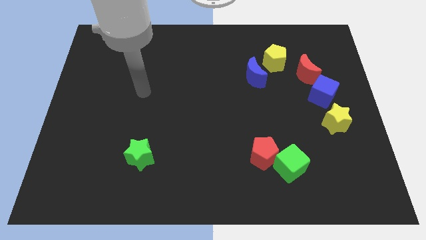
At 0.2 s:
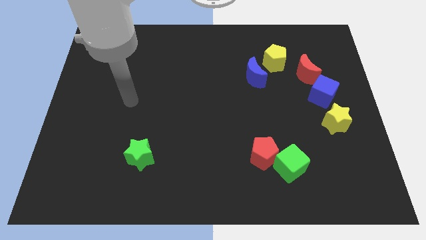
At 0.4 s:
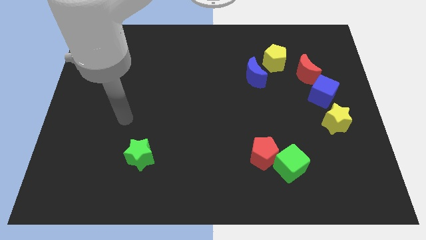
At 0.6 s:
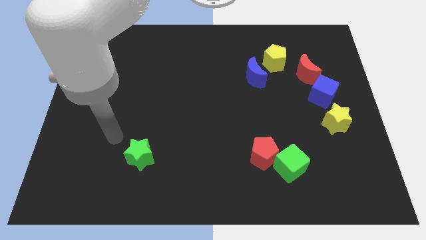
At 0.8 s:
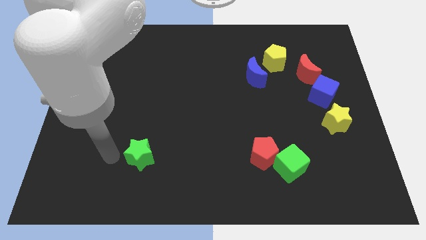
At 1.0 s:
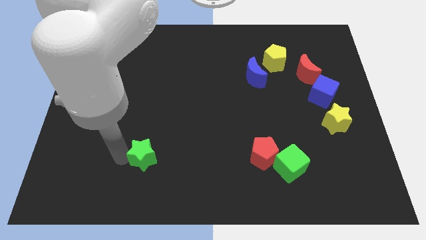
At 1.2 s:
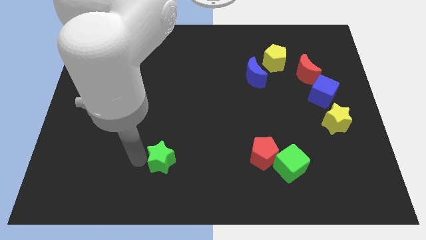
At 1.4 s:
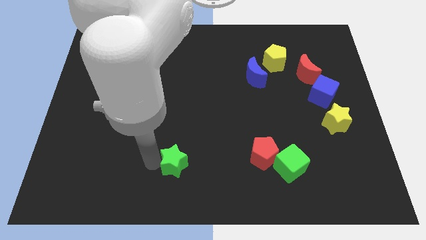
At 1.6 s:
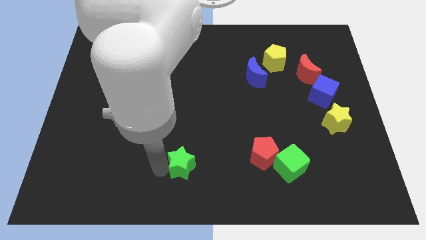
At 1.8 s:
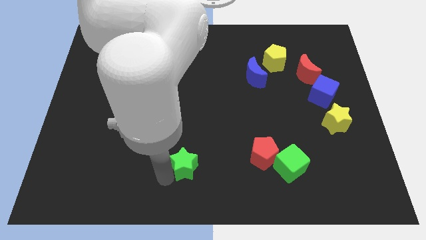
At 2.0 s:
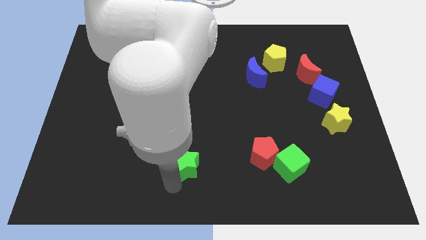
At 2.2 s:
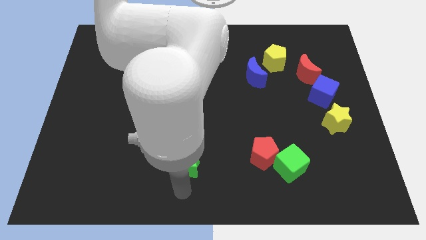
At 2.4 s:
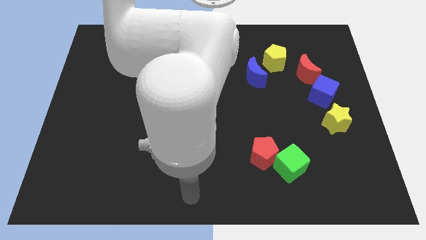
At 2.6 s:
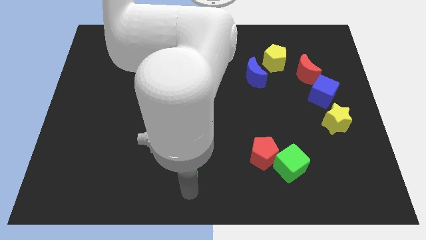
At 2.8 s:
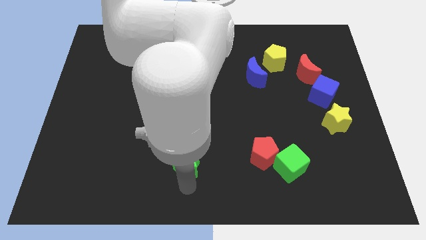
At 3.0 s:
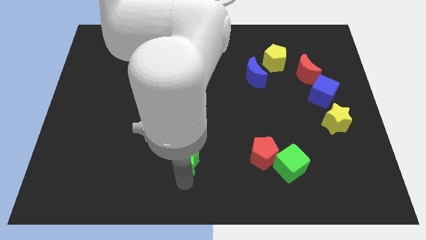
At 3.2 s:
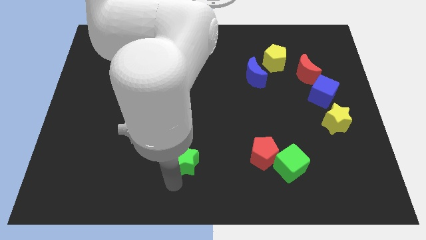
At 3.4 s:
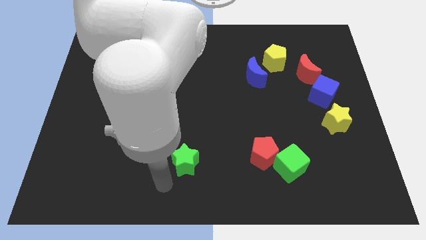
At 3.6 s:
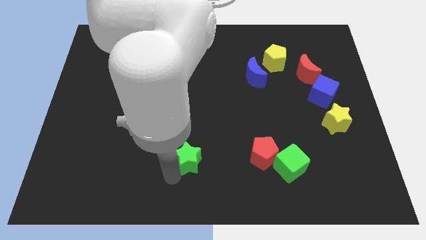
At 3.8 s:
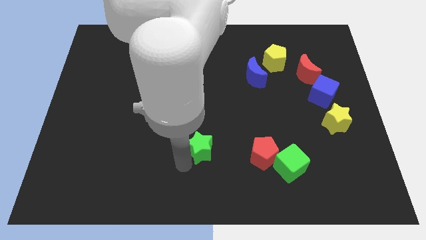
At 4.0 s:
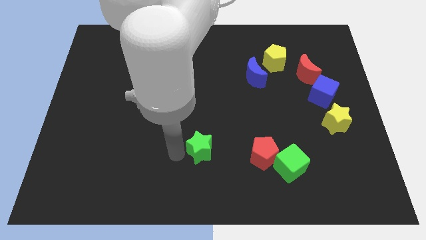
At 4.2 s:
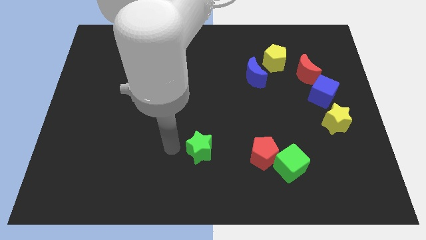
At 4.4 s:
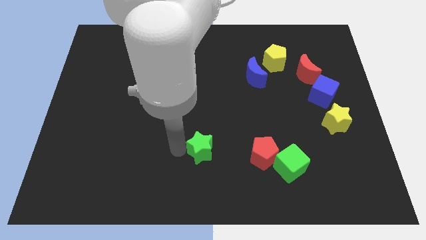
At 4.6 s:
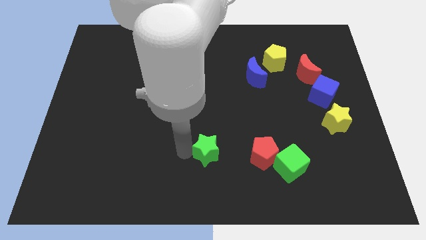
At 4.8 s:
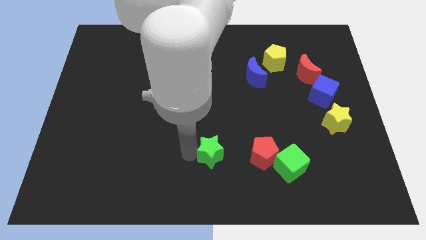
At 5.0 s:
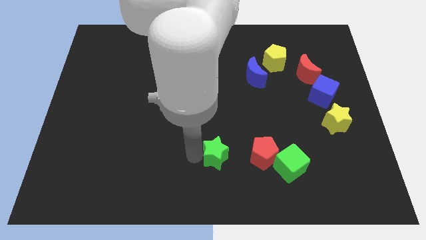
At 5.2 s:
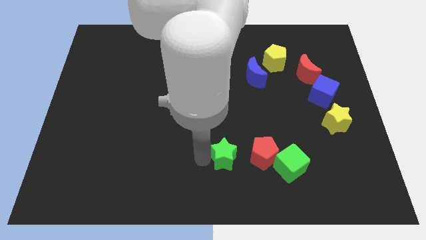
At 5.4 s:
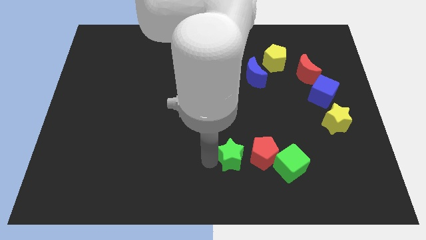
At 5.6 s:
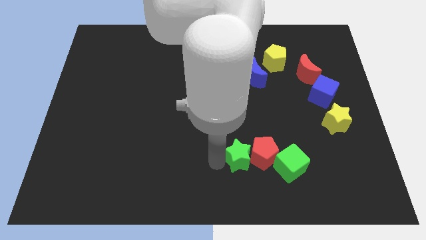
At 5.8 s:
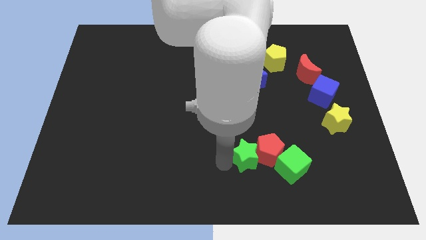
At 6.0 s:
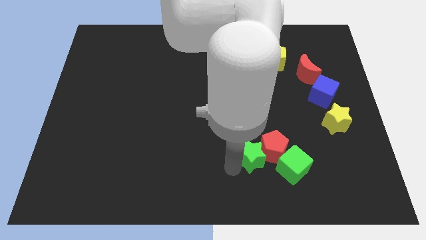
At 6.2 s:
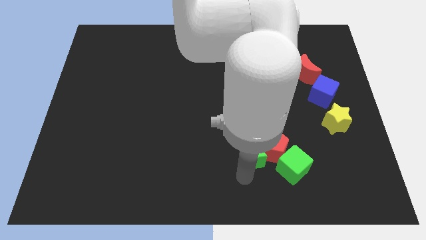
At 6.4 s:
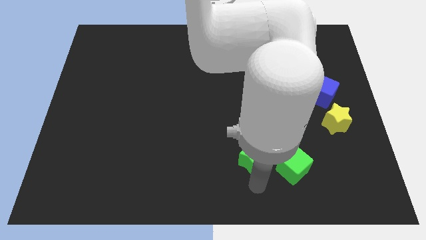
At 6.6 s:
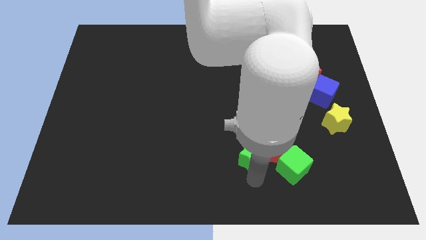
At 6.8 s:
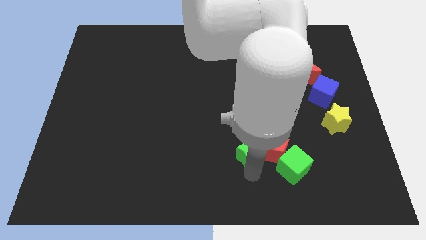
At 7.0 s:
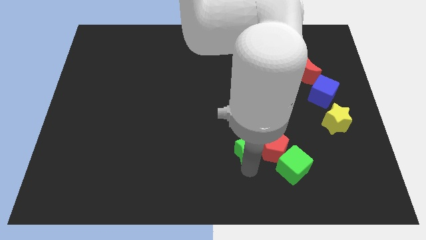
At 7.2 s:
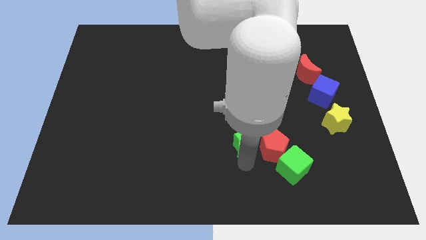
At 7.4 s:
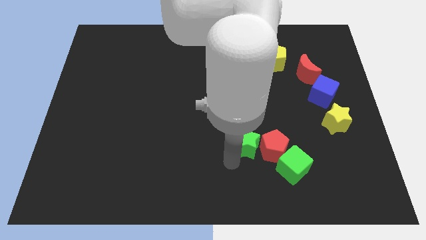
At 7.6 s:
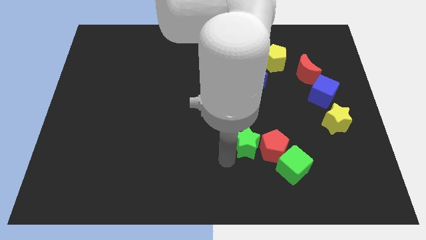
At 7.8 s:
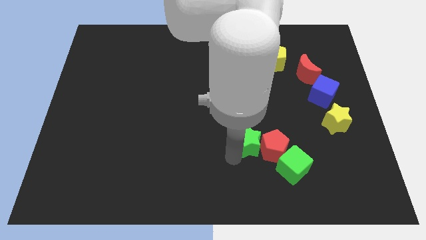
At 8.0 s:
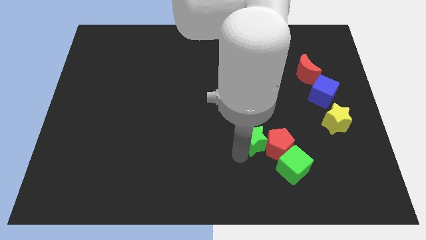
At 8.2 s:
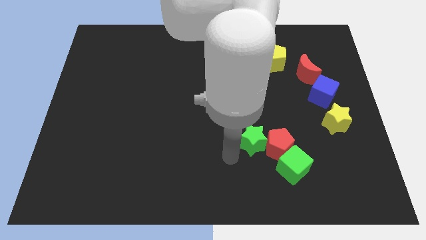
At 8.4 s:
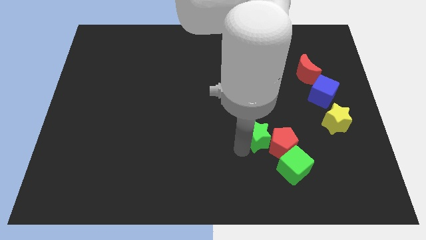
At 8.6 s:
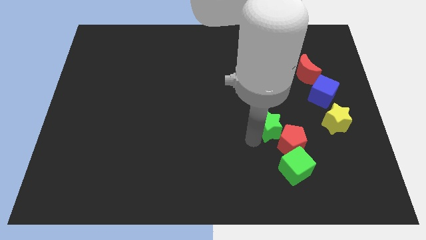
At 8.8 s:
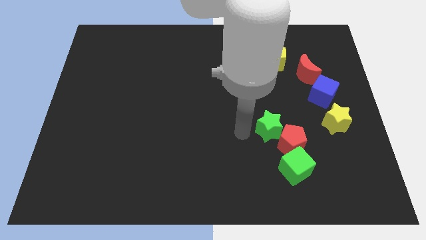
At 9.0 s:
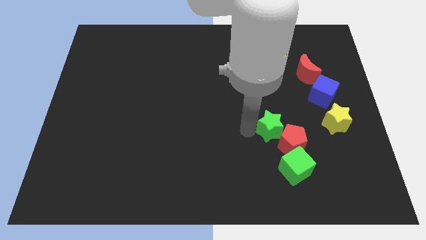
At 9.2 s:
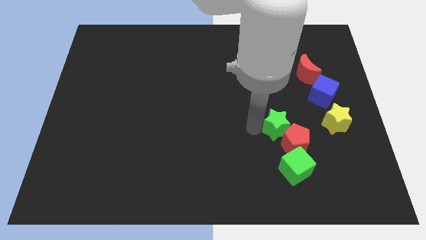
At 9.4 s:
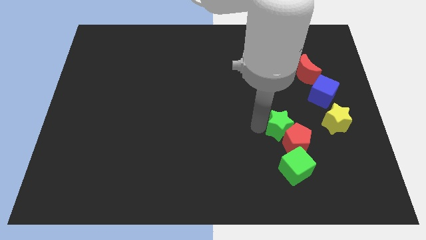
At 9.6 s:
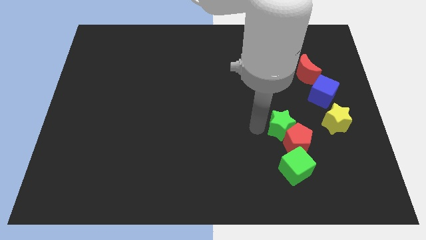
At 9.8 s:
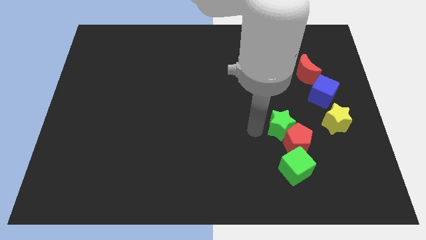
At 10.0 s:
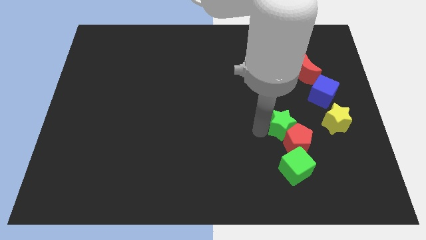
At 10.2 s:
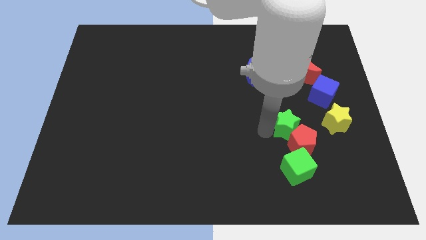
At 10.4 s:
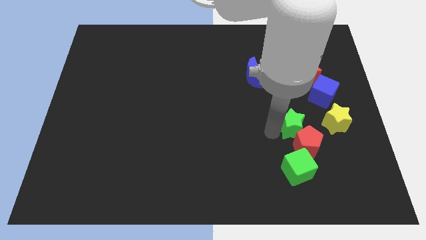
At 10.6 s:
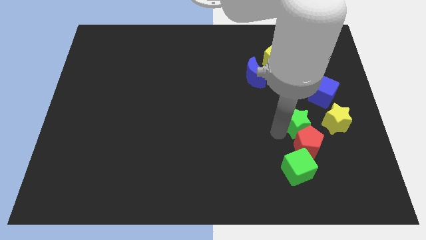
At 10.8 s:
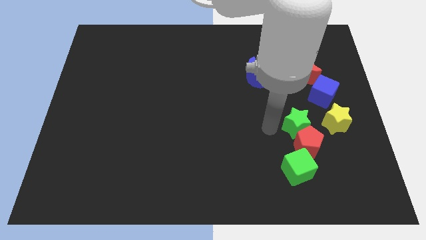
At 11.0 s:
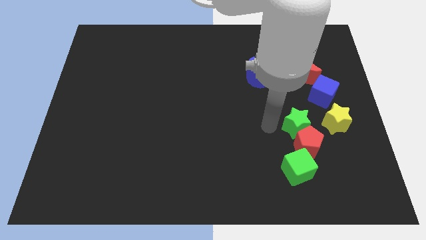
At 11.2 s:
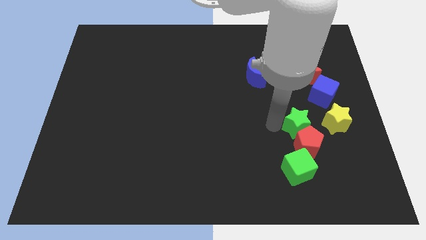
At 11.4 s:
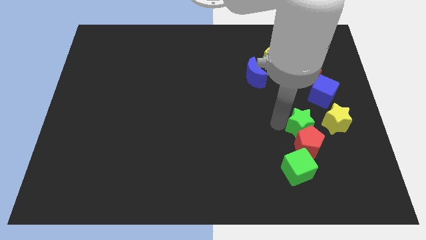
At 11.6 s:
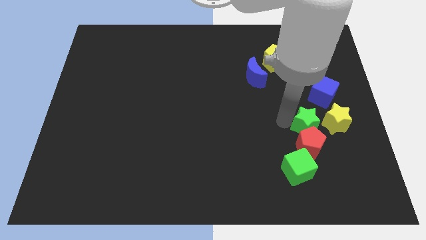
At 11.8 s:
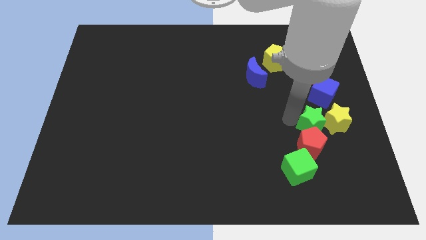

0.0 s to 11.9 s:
push the green star to the yellow star

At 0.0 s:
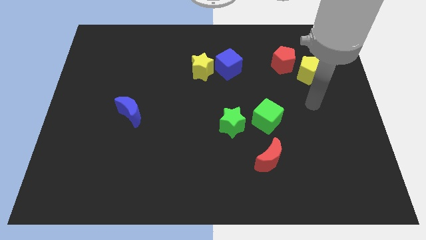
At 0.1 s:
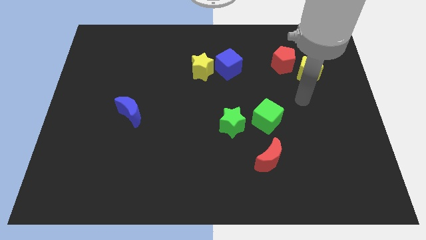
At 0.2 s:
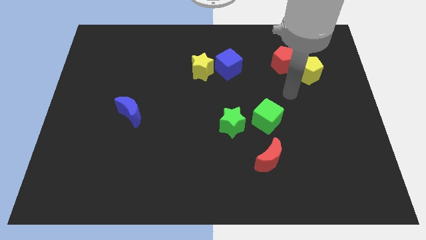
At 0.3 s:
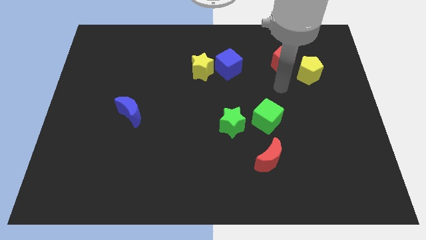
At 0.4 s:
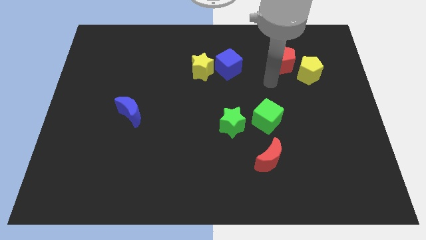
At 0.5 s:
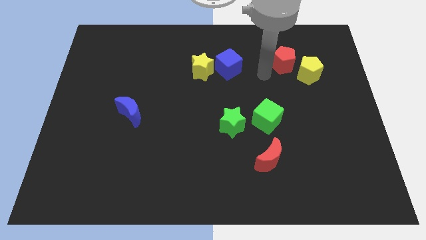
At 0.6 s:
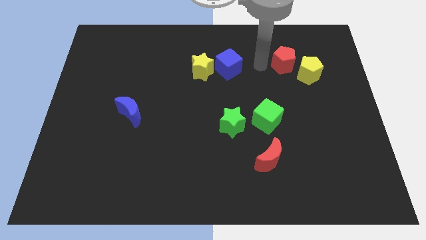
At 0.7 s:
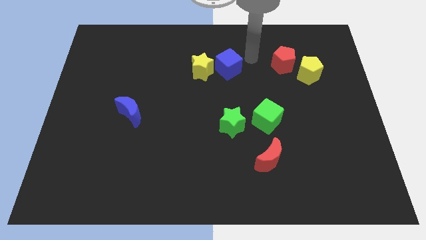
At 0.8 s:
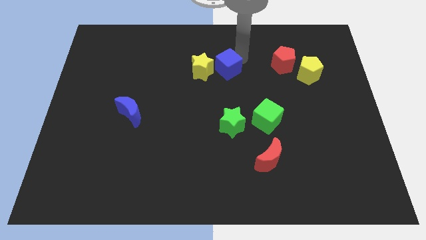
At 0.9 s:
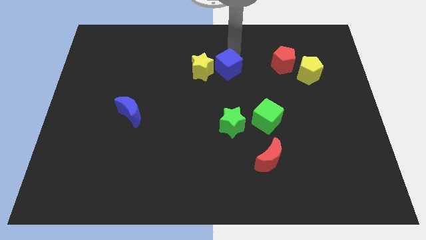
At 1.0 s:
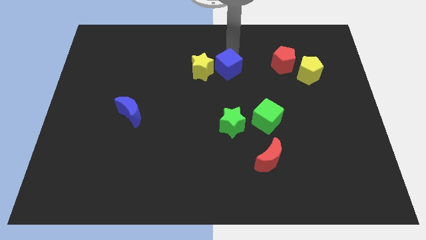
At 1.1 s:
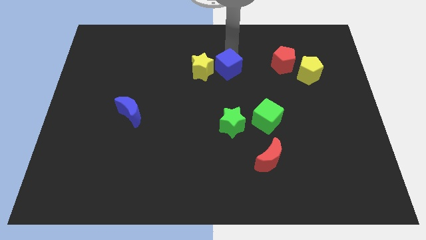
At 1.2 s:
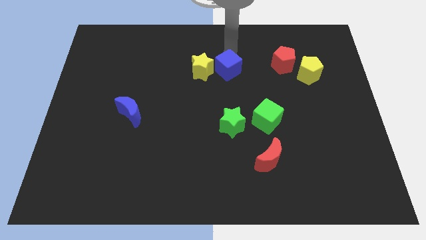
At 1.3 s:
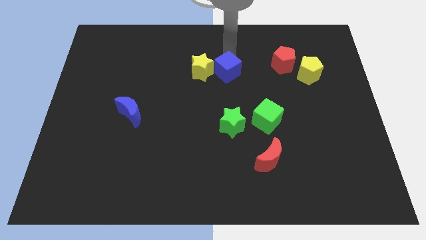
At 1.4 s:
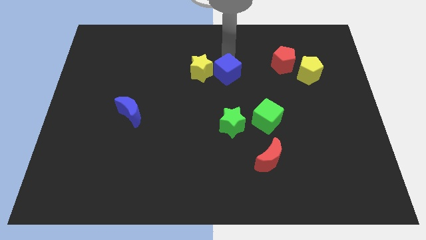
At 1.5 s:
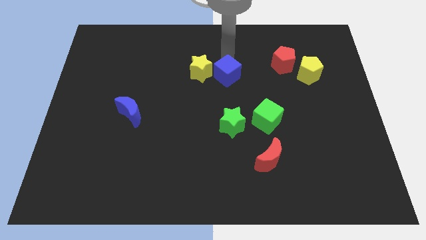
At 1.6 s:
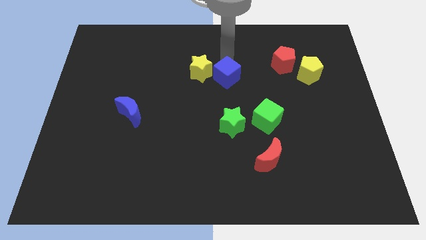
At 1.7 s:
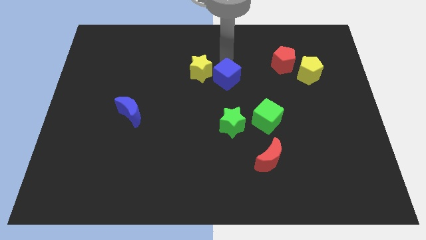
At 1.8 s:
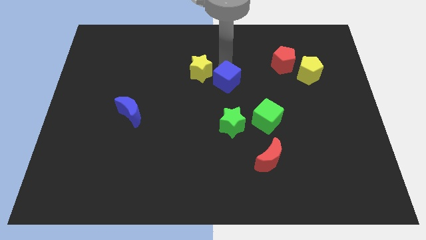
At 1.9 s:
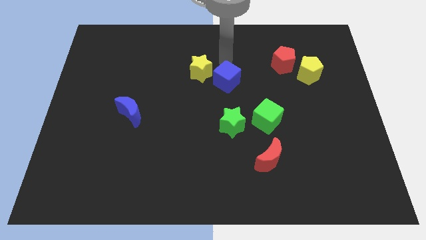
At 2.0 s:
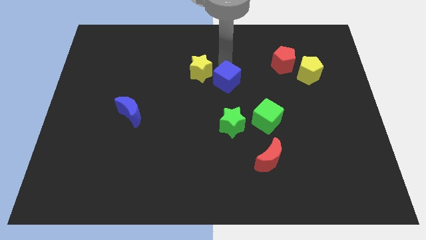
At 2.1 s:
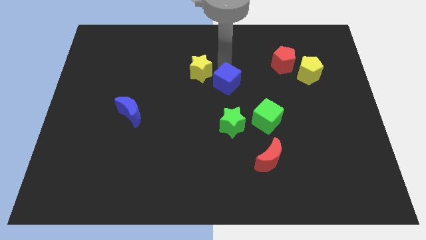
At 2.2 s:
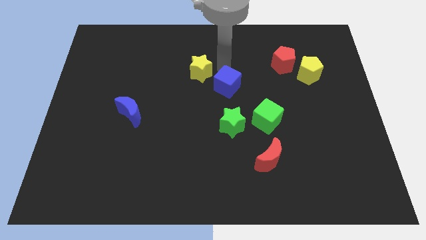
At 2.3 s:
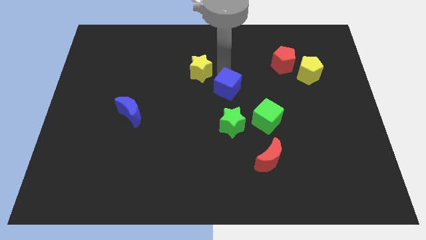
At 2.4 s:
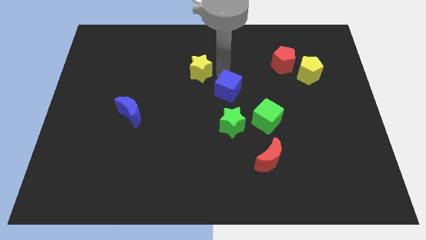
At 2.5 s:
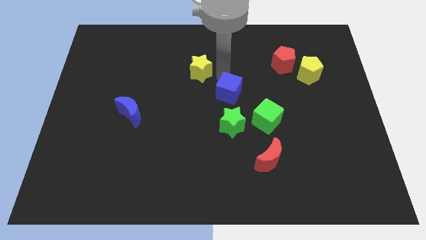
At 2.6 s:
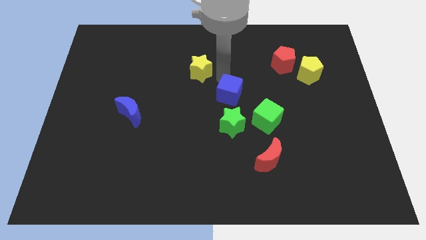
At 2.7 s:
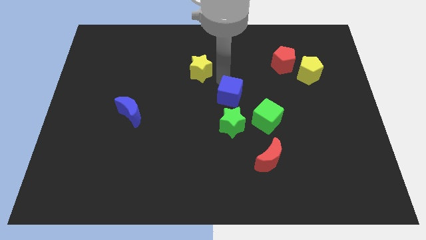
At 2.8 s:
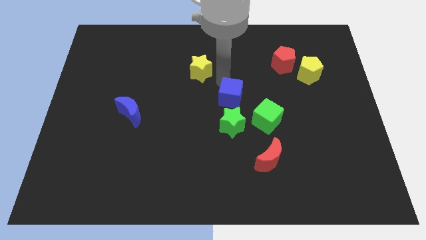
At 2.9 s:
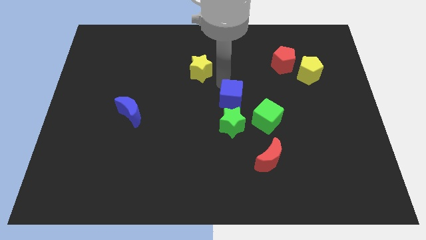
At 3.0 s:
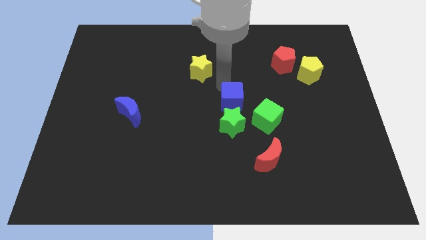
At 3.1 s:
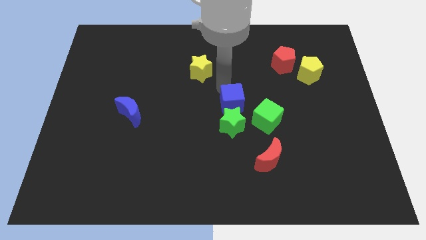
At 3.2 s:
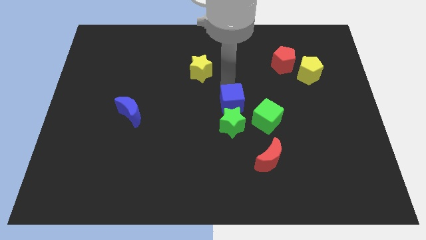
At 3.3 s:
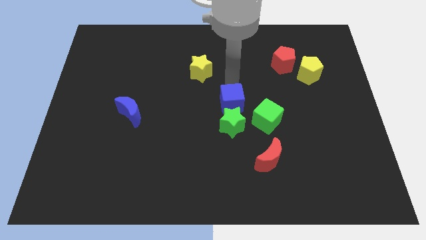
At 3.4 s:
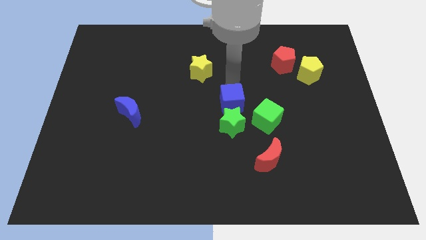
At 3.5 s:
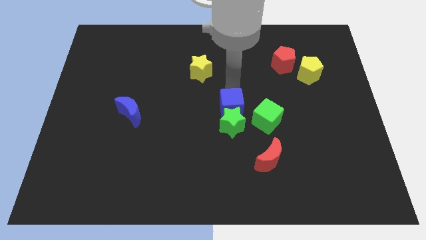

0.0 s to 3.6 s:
slide the blue cube next to the green star
